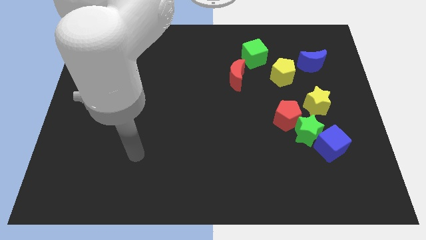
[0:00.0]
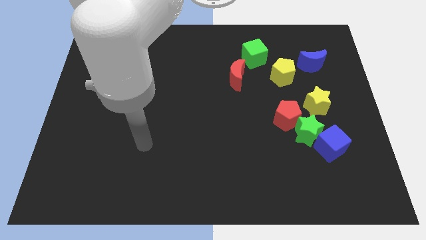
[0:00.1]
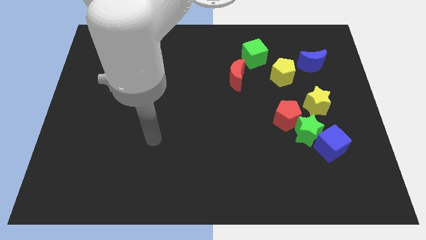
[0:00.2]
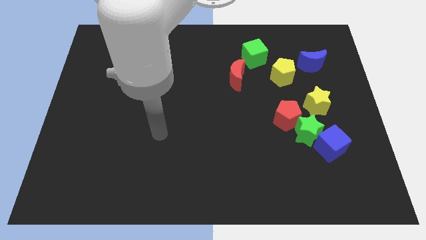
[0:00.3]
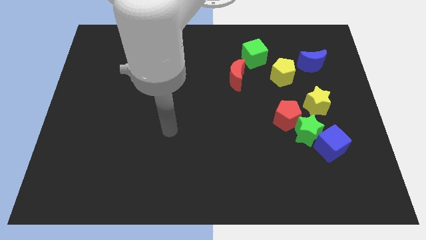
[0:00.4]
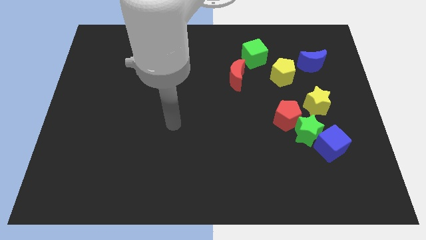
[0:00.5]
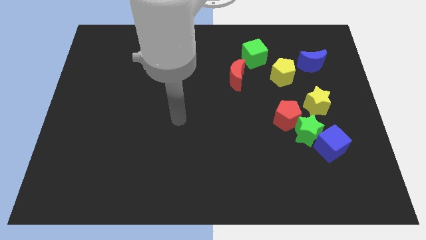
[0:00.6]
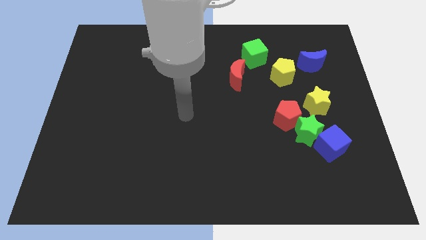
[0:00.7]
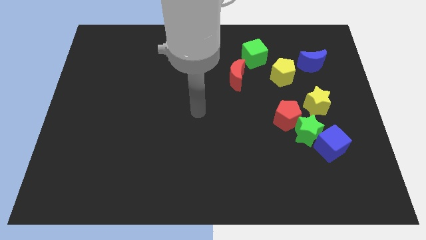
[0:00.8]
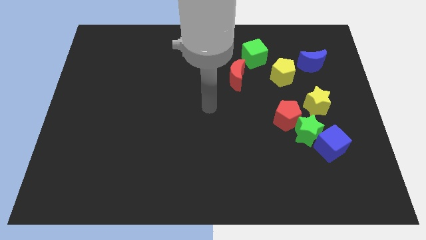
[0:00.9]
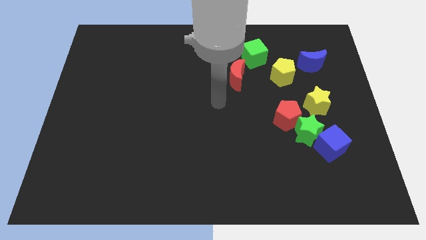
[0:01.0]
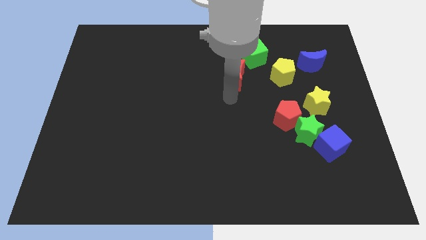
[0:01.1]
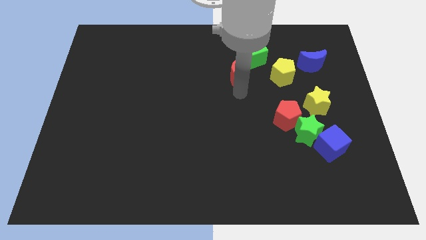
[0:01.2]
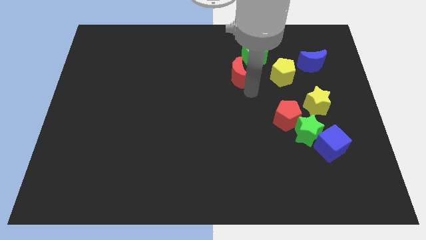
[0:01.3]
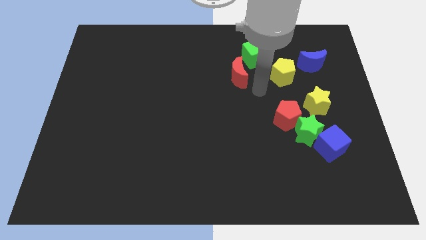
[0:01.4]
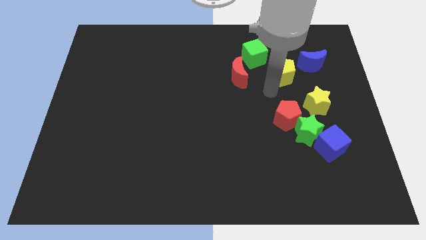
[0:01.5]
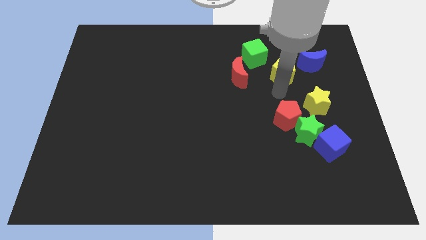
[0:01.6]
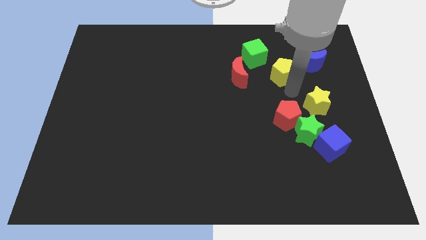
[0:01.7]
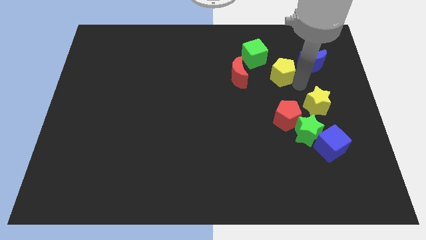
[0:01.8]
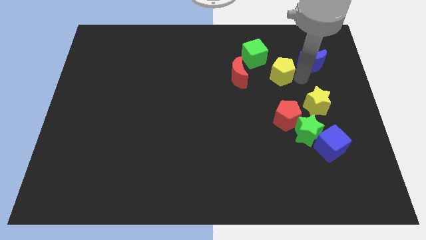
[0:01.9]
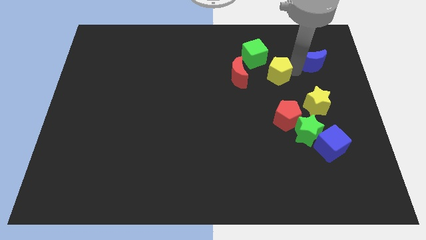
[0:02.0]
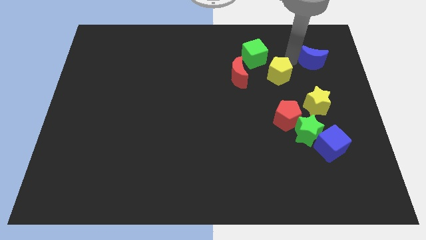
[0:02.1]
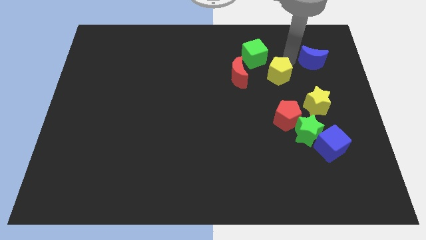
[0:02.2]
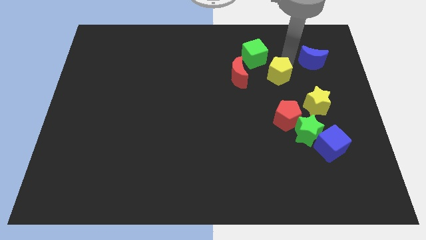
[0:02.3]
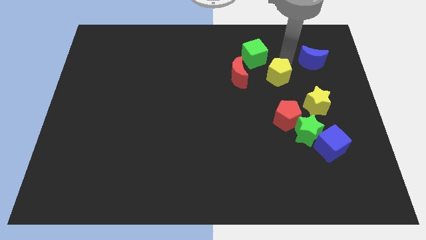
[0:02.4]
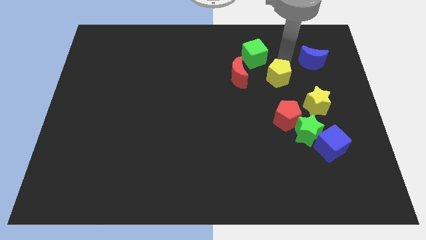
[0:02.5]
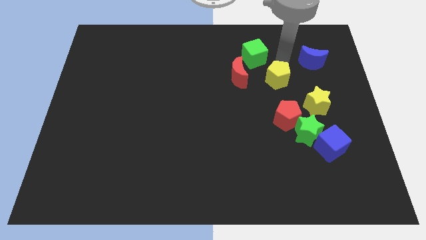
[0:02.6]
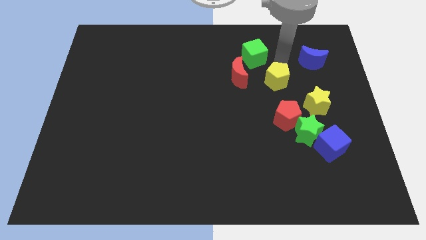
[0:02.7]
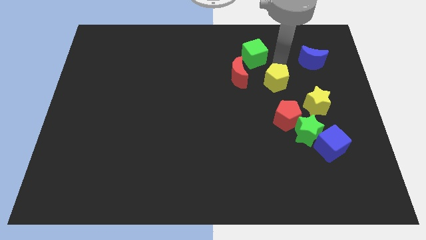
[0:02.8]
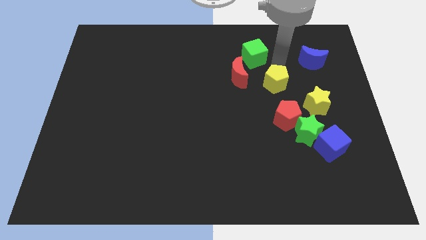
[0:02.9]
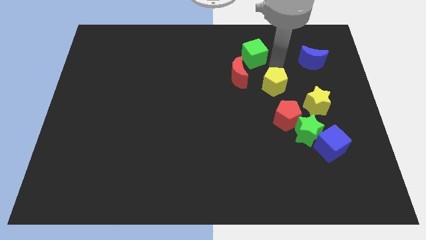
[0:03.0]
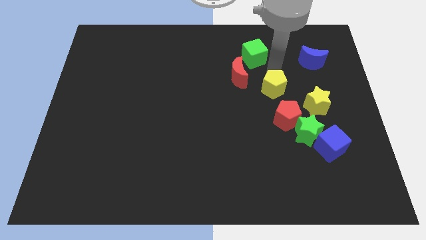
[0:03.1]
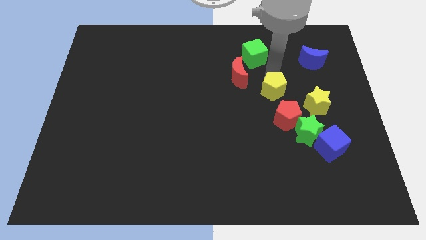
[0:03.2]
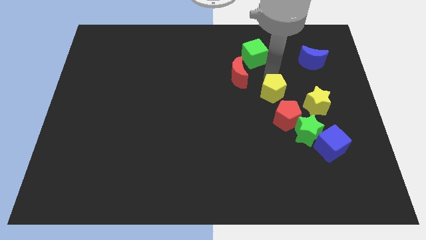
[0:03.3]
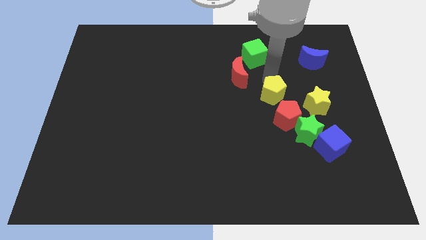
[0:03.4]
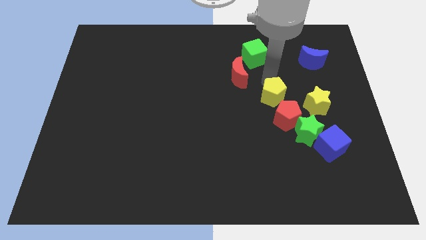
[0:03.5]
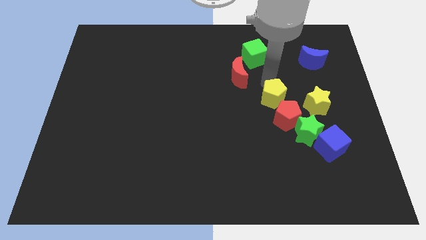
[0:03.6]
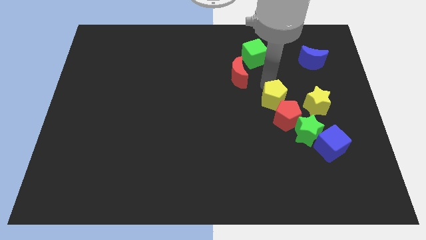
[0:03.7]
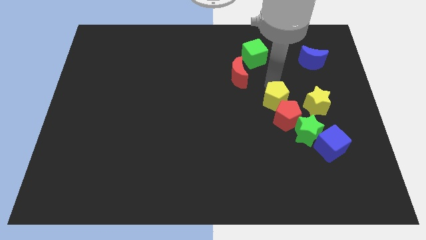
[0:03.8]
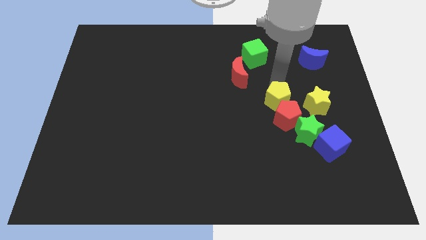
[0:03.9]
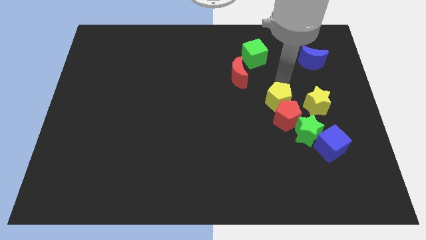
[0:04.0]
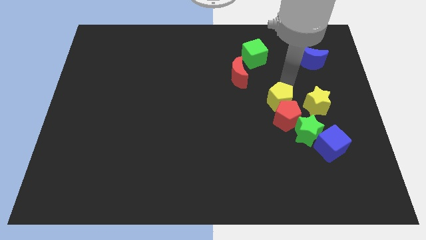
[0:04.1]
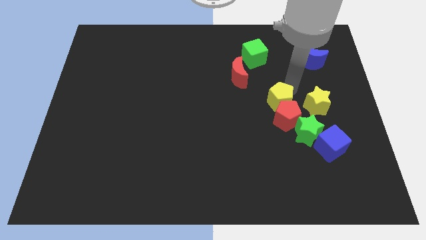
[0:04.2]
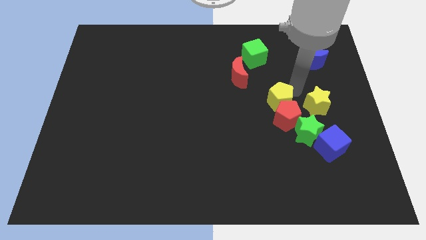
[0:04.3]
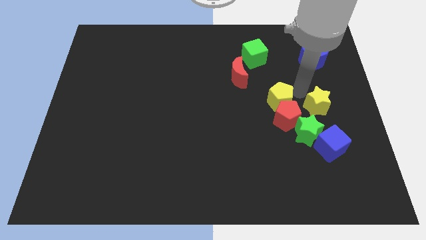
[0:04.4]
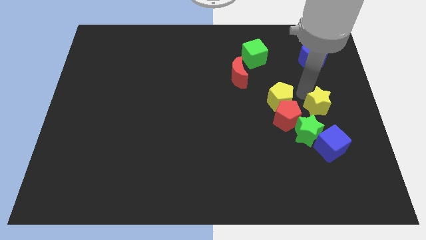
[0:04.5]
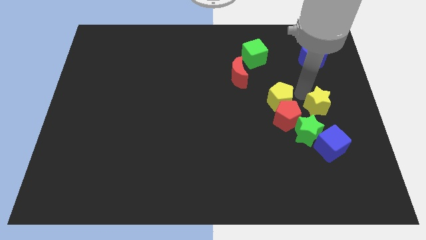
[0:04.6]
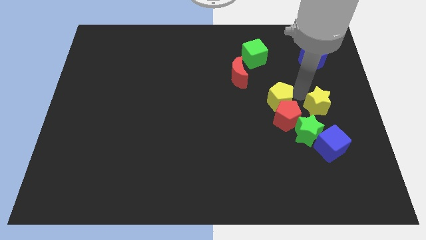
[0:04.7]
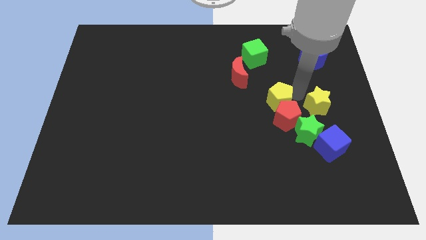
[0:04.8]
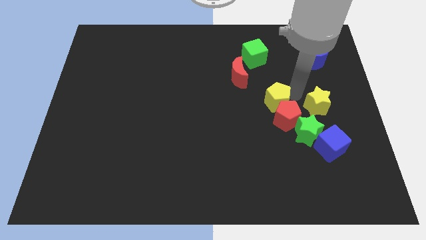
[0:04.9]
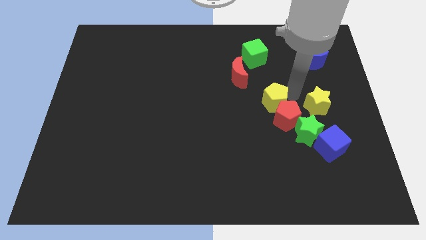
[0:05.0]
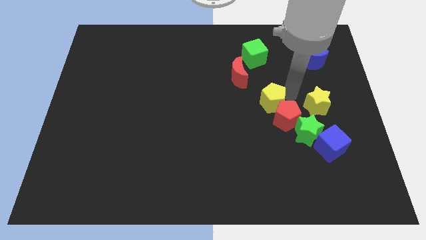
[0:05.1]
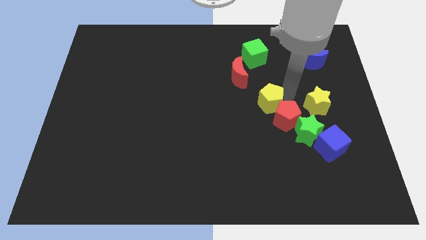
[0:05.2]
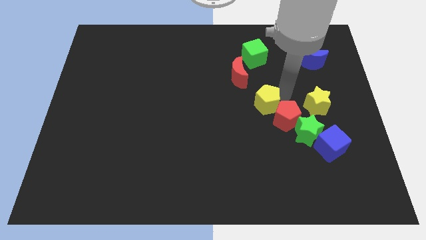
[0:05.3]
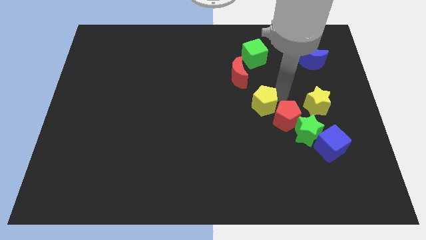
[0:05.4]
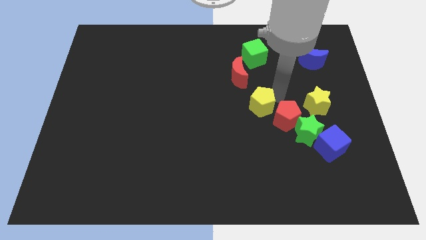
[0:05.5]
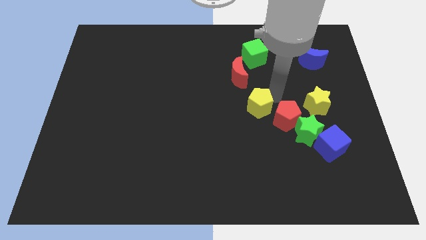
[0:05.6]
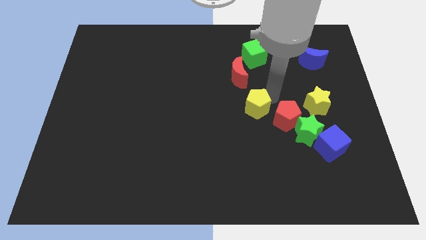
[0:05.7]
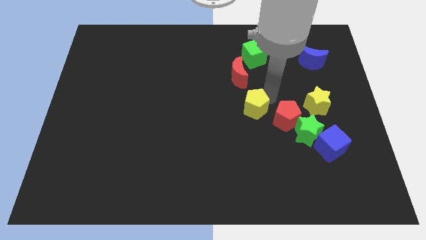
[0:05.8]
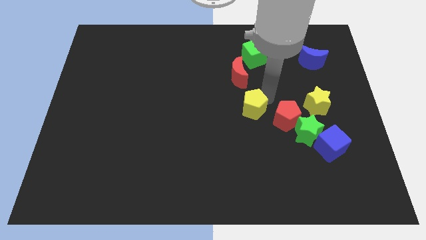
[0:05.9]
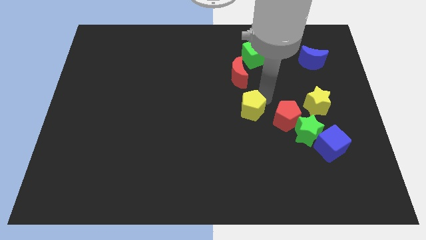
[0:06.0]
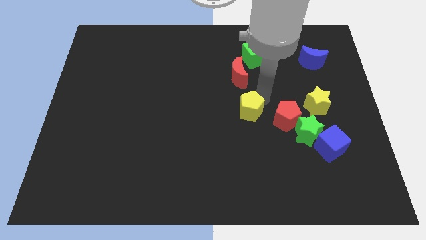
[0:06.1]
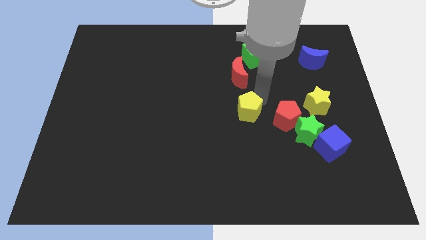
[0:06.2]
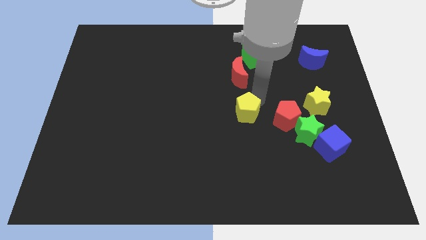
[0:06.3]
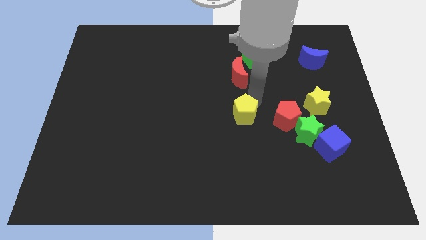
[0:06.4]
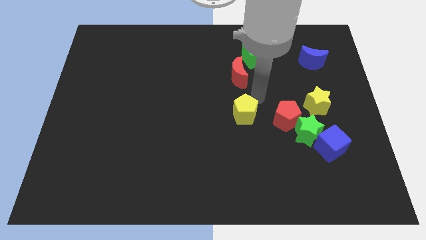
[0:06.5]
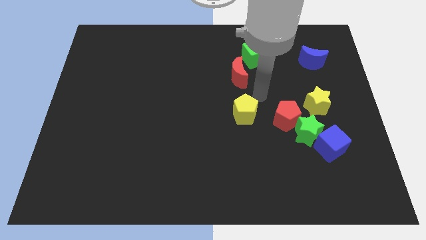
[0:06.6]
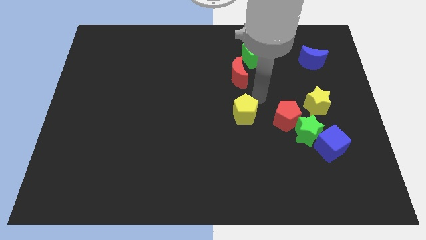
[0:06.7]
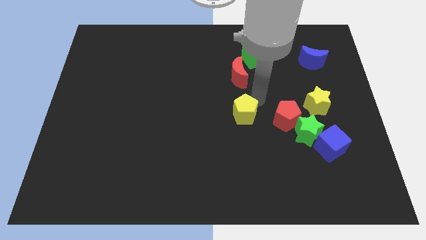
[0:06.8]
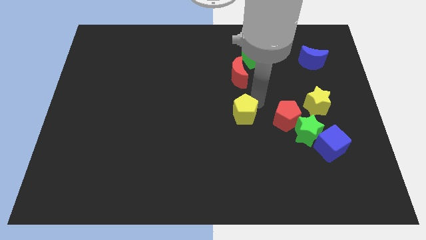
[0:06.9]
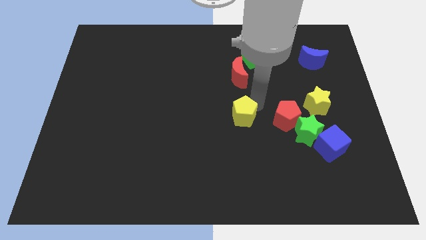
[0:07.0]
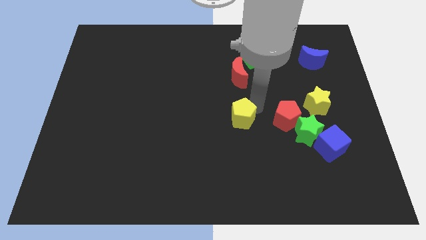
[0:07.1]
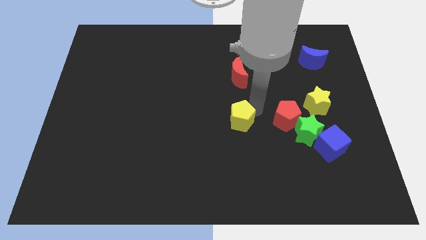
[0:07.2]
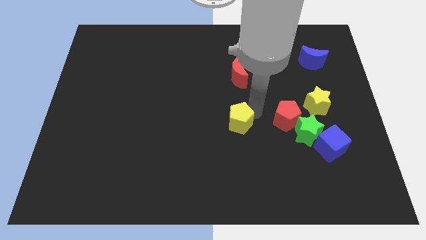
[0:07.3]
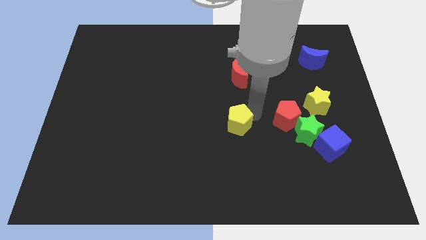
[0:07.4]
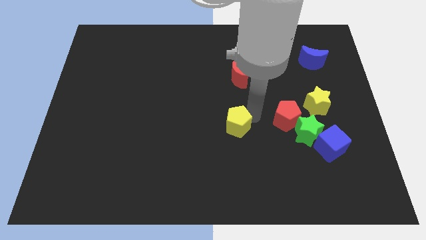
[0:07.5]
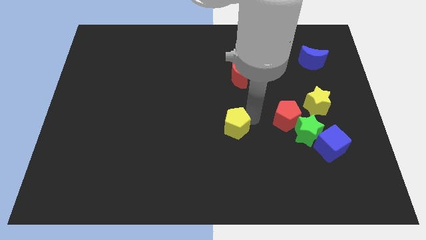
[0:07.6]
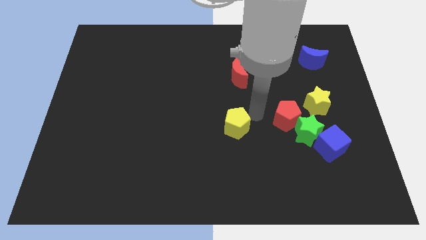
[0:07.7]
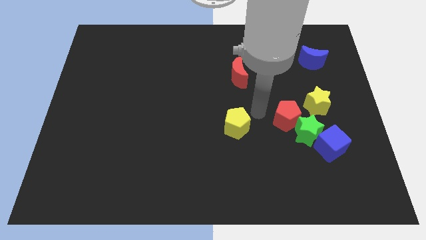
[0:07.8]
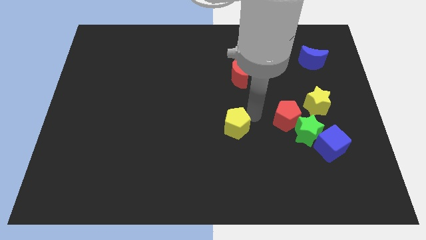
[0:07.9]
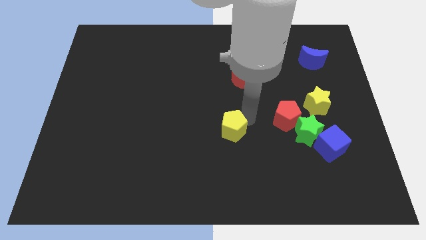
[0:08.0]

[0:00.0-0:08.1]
move the yellow pentagon downwards and left diagonally
